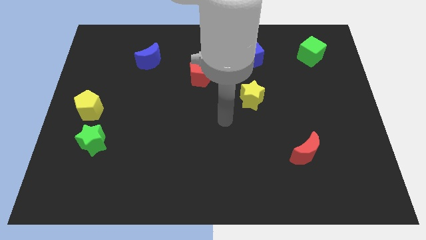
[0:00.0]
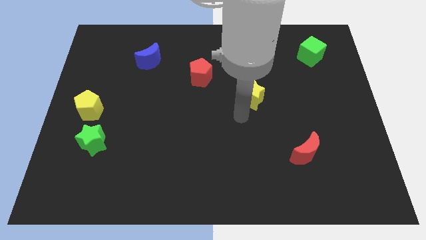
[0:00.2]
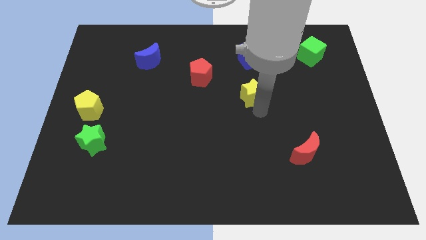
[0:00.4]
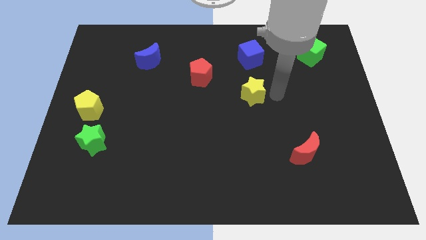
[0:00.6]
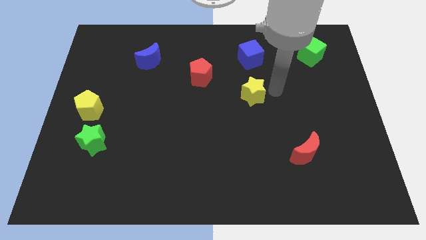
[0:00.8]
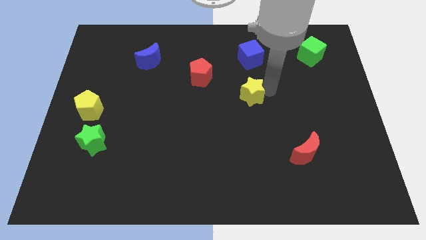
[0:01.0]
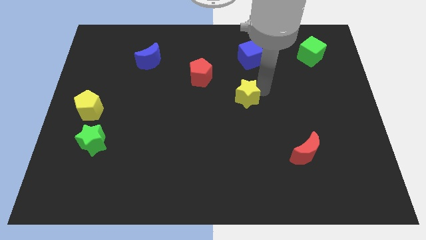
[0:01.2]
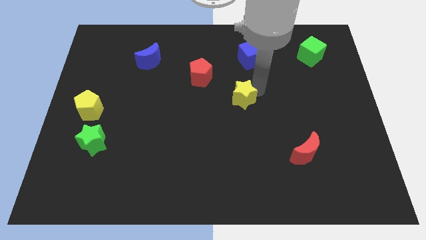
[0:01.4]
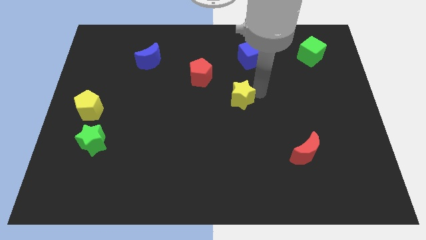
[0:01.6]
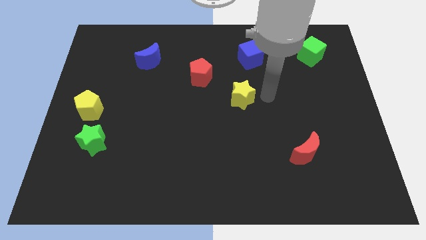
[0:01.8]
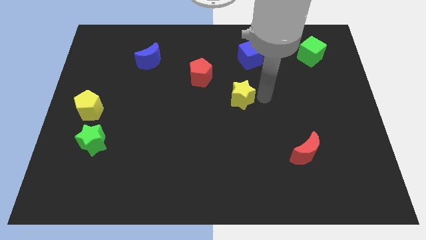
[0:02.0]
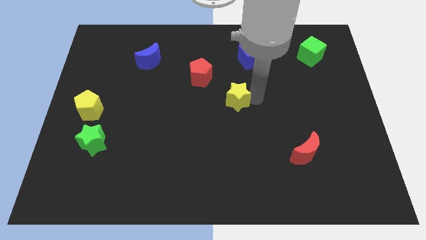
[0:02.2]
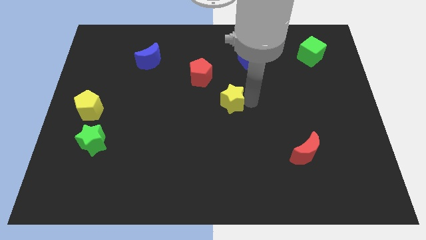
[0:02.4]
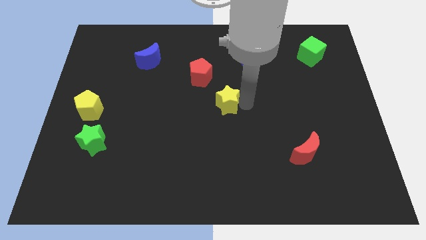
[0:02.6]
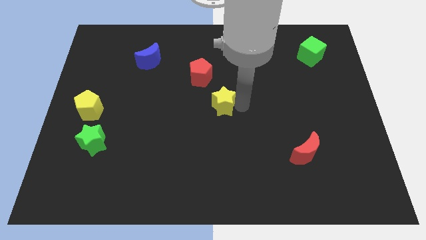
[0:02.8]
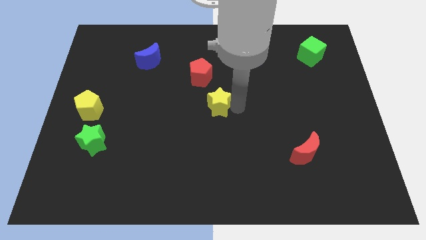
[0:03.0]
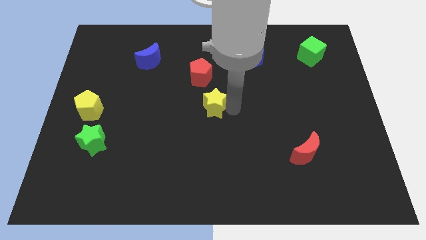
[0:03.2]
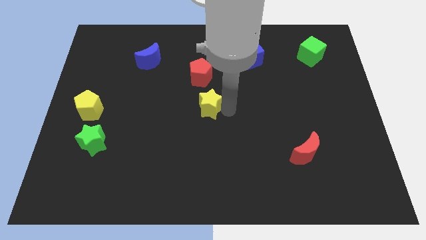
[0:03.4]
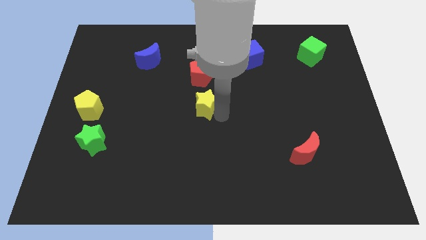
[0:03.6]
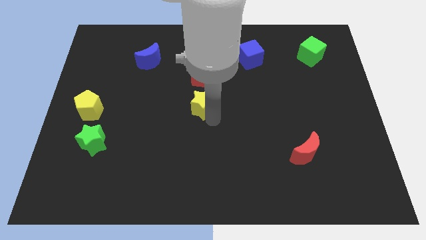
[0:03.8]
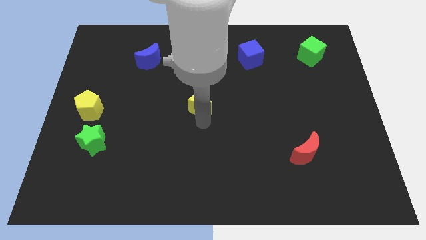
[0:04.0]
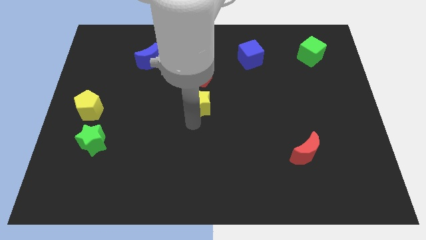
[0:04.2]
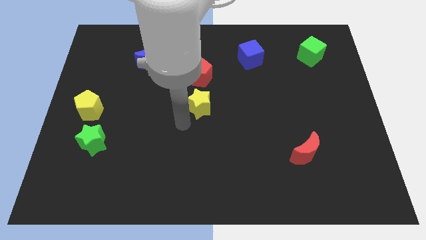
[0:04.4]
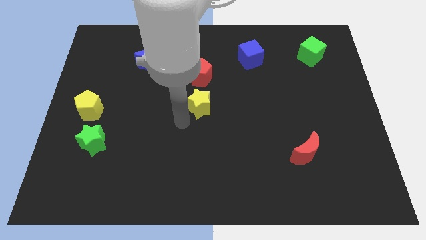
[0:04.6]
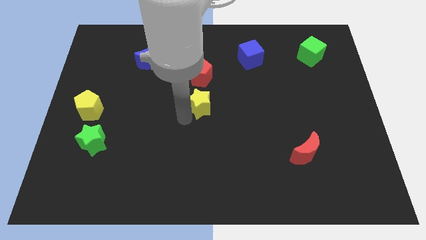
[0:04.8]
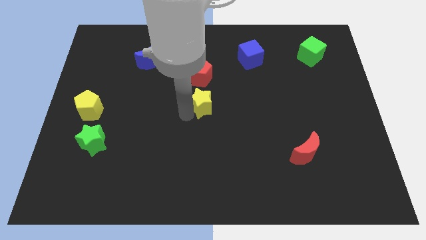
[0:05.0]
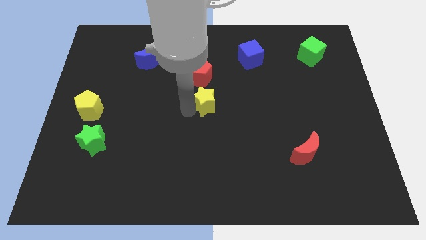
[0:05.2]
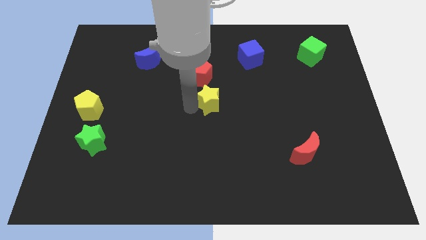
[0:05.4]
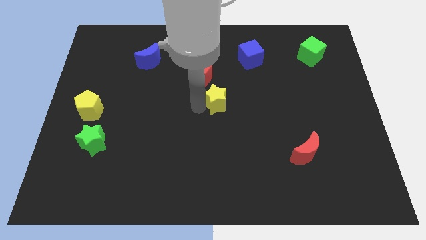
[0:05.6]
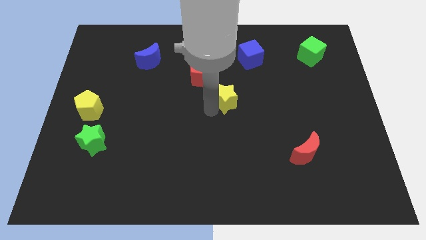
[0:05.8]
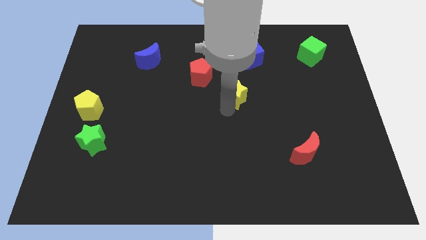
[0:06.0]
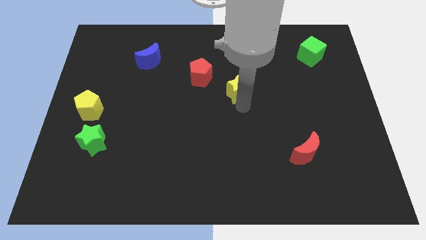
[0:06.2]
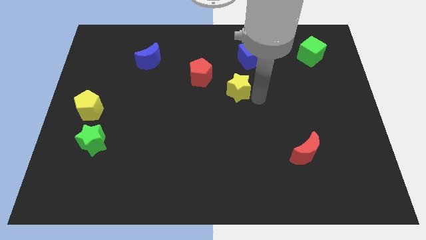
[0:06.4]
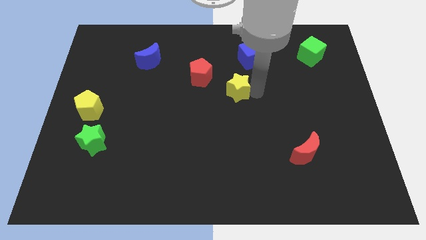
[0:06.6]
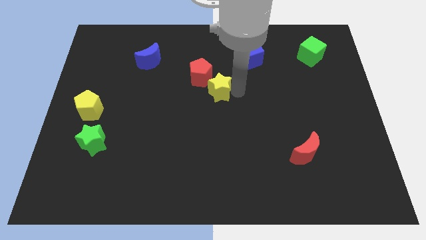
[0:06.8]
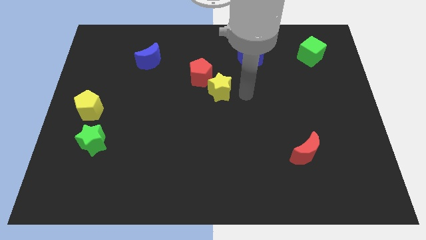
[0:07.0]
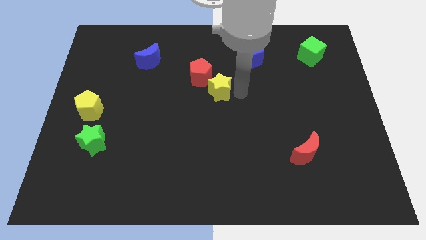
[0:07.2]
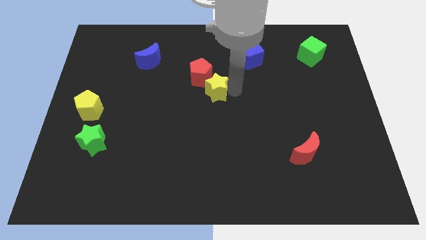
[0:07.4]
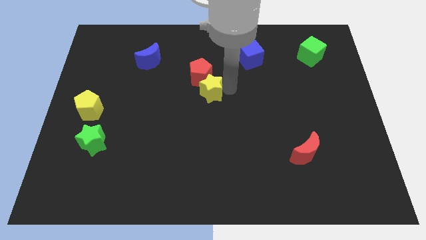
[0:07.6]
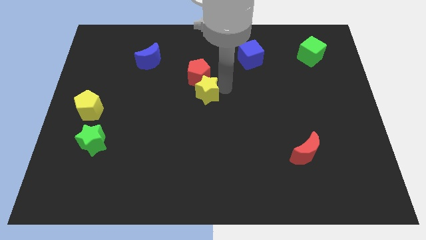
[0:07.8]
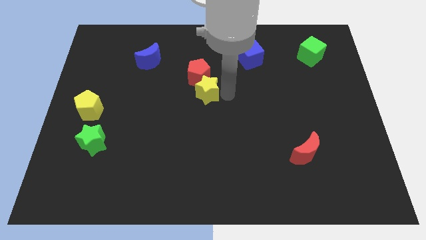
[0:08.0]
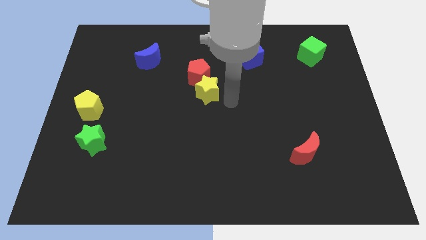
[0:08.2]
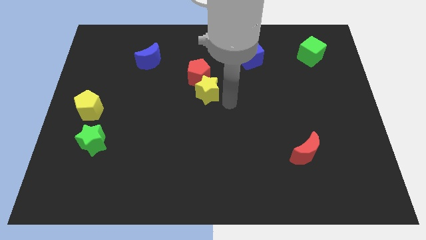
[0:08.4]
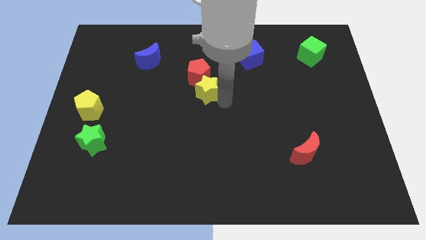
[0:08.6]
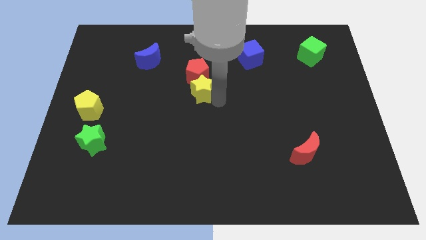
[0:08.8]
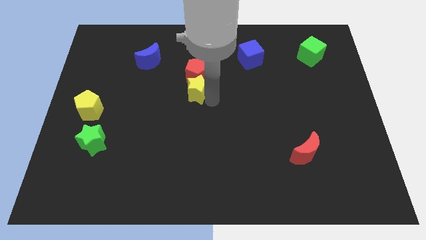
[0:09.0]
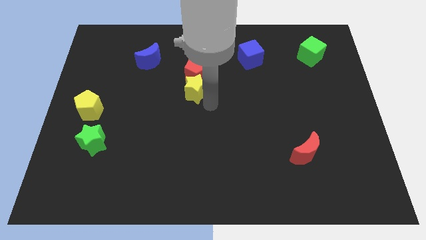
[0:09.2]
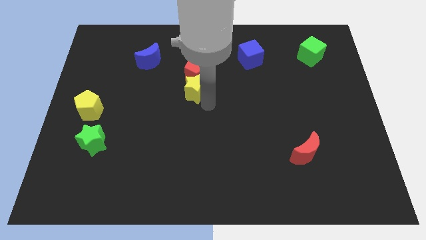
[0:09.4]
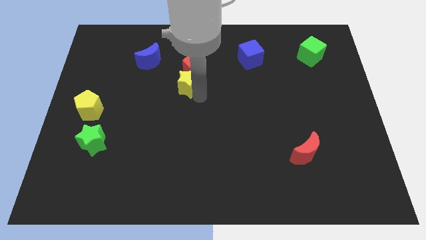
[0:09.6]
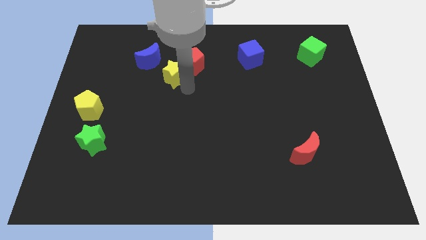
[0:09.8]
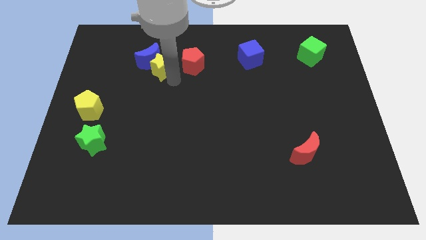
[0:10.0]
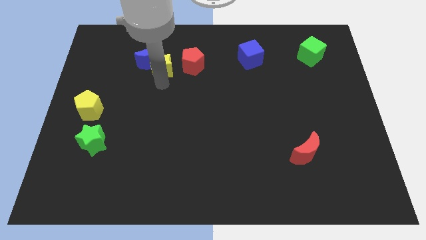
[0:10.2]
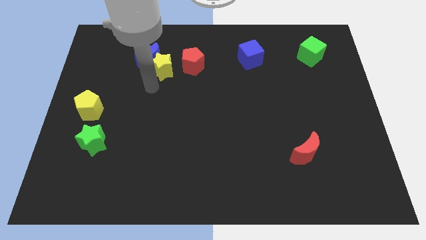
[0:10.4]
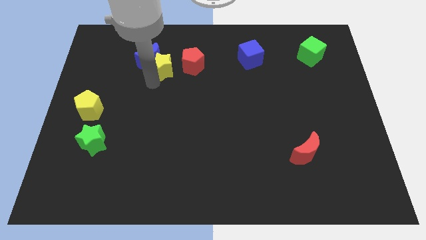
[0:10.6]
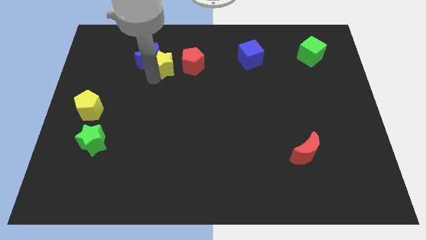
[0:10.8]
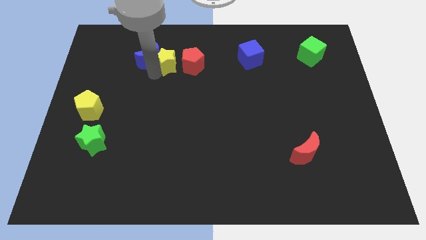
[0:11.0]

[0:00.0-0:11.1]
push the yellow star diagonally up and to the left of the red pentagon

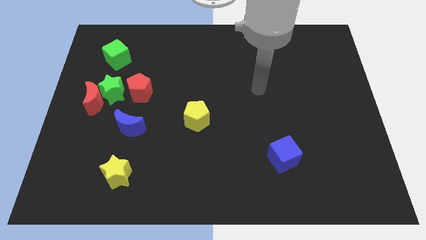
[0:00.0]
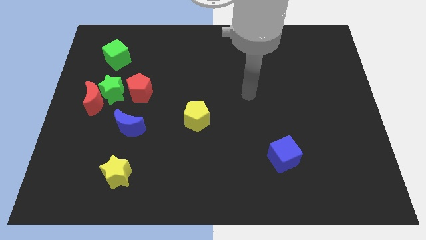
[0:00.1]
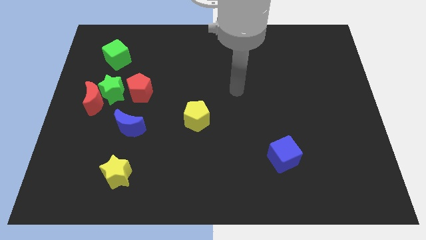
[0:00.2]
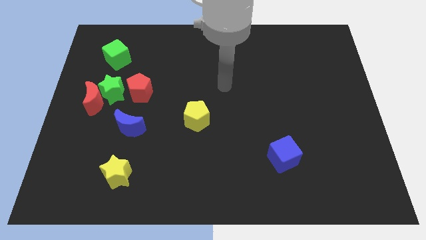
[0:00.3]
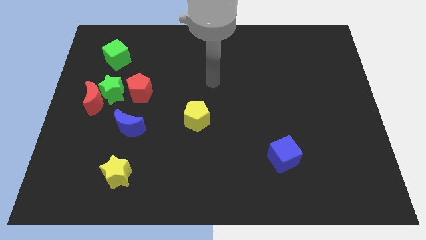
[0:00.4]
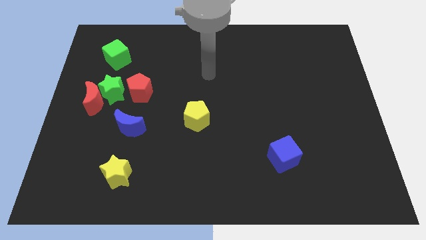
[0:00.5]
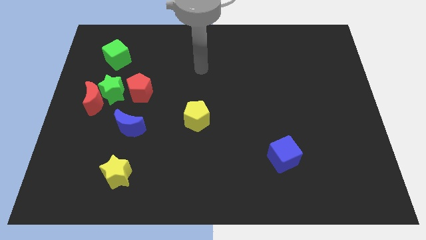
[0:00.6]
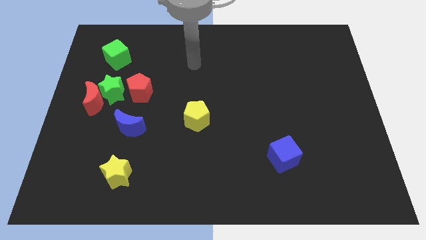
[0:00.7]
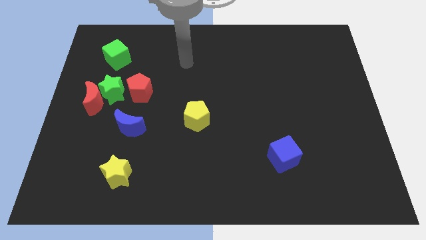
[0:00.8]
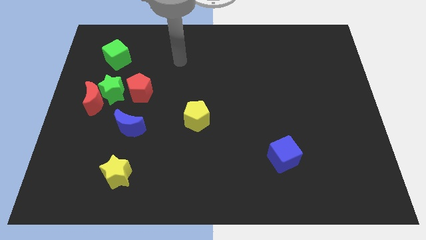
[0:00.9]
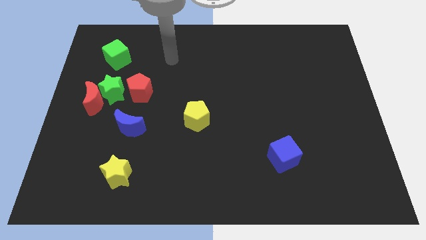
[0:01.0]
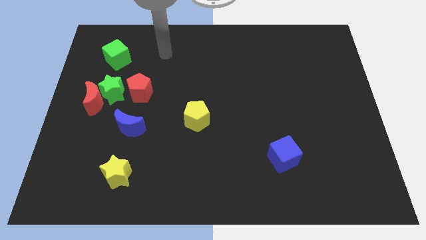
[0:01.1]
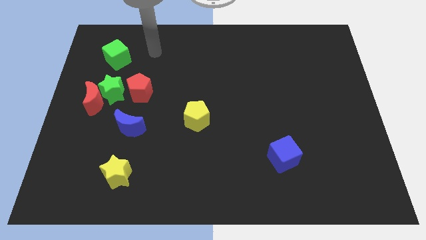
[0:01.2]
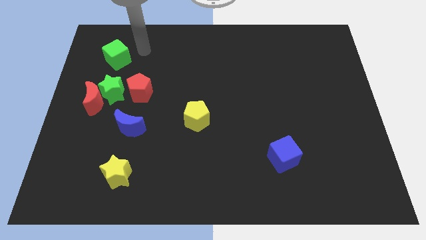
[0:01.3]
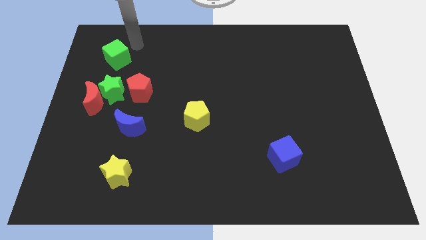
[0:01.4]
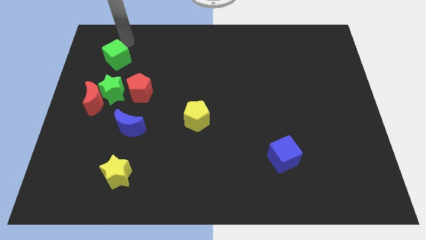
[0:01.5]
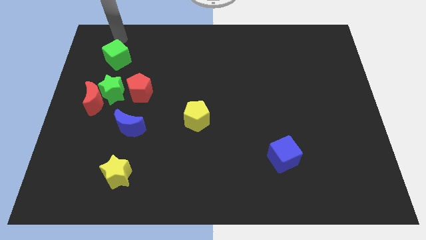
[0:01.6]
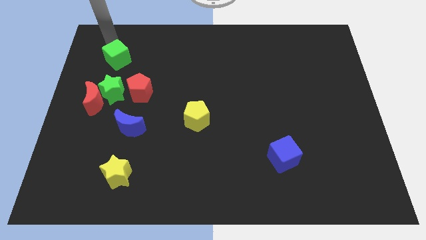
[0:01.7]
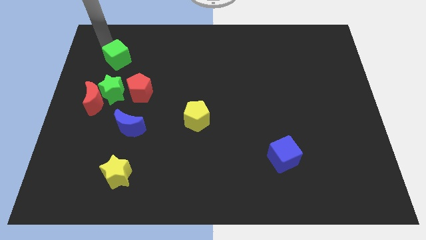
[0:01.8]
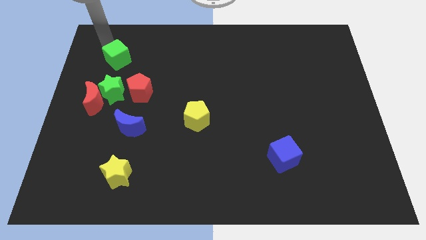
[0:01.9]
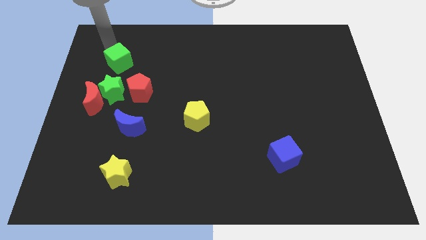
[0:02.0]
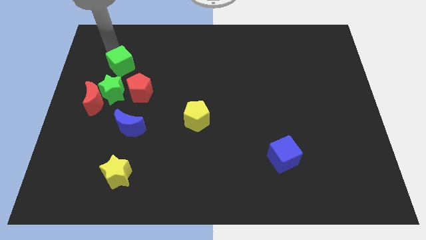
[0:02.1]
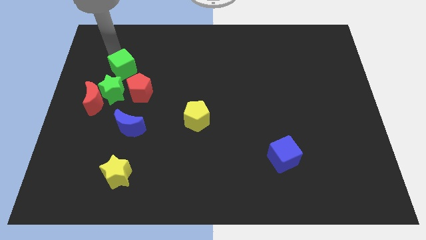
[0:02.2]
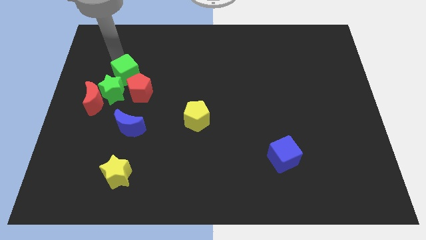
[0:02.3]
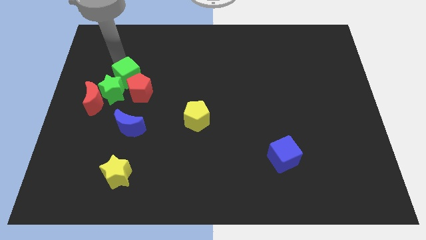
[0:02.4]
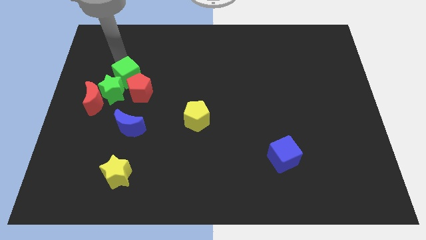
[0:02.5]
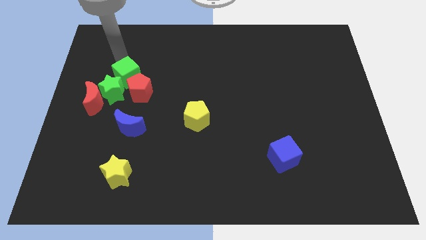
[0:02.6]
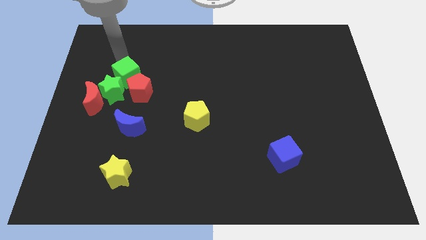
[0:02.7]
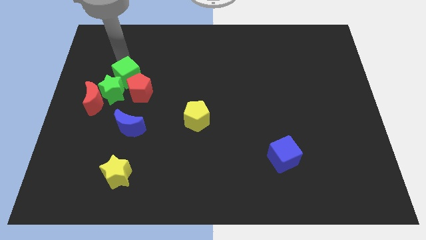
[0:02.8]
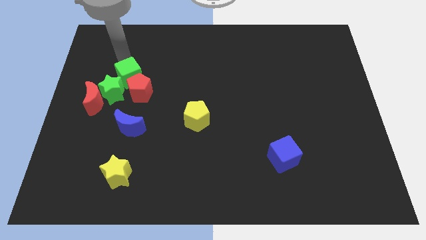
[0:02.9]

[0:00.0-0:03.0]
slide the green cube to the top of the blue moon
